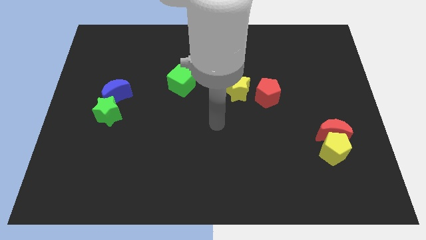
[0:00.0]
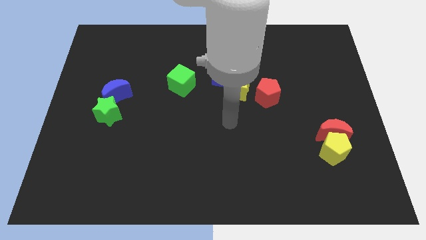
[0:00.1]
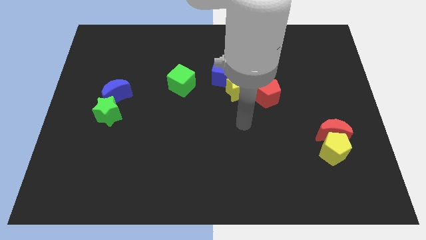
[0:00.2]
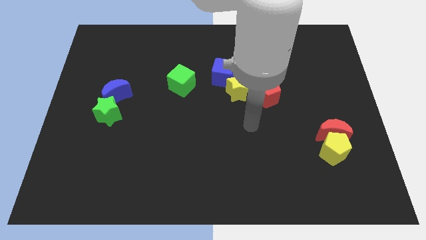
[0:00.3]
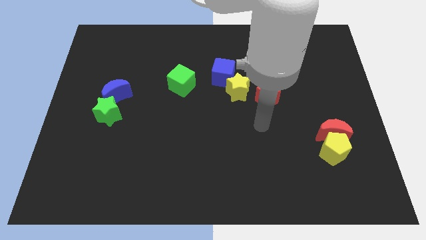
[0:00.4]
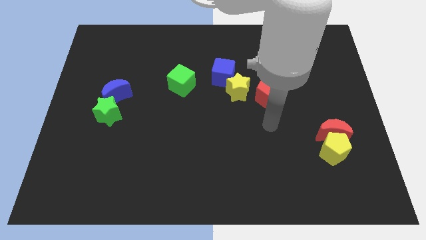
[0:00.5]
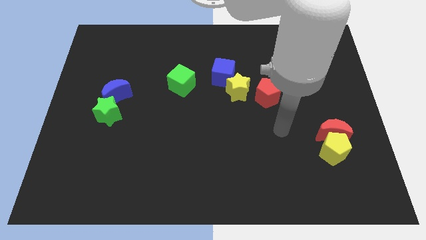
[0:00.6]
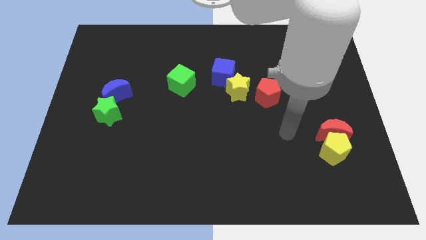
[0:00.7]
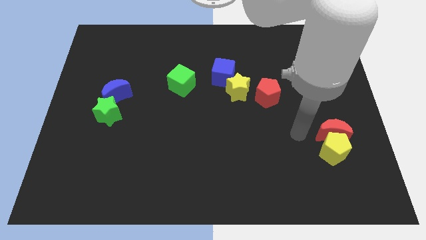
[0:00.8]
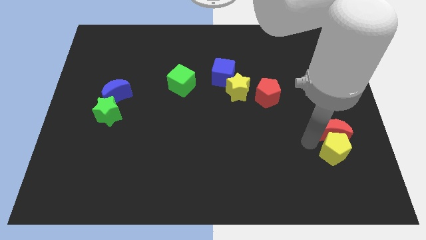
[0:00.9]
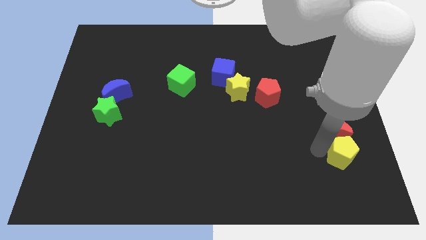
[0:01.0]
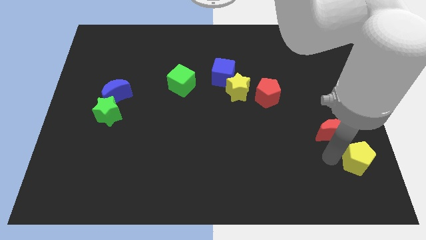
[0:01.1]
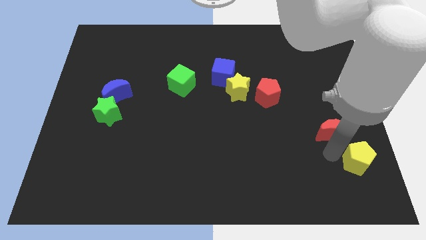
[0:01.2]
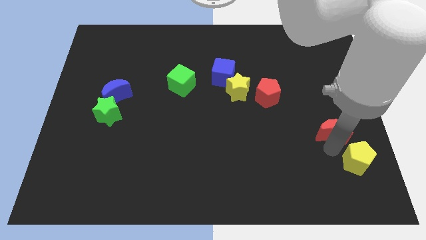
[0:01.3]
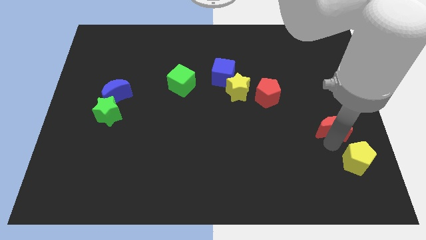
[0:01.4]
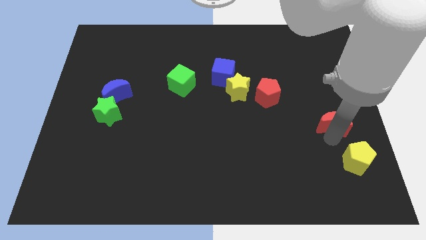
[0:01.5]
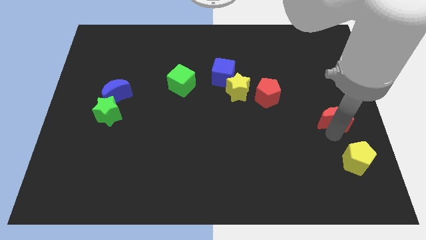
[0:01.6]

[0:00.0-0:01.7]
pull the red moon apart from the yellow pentagon

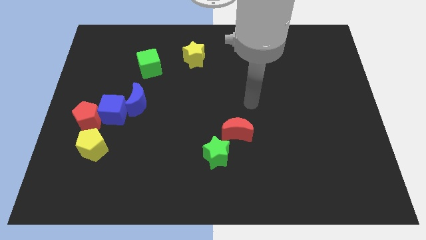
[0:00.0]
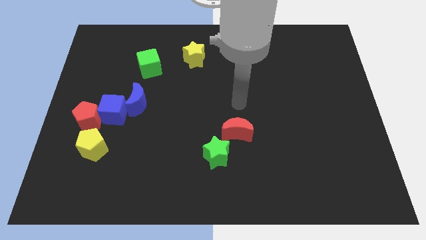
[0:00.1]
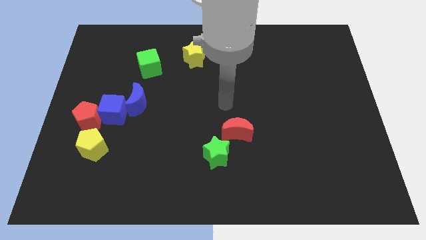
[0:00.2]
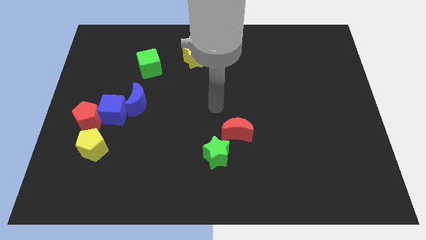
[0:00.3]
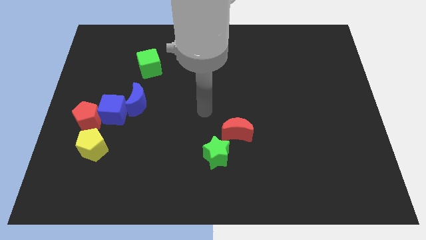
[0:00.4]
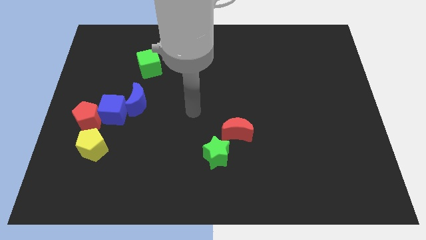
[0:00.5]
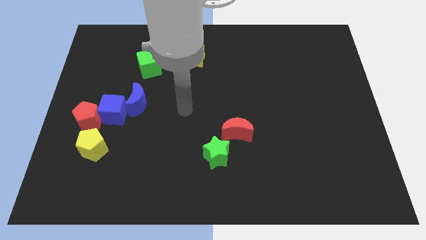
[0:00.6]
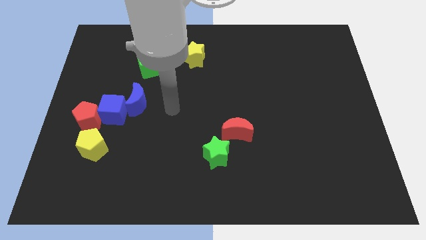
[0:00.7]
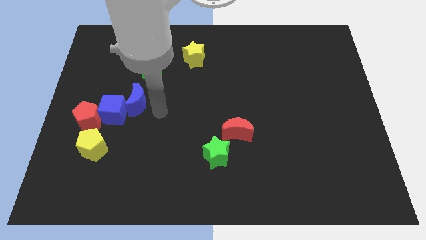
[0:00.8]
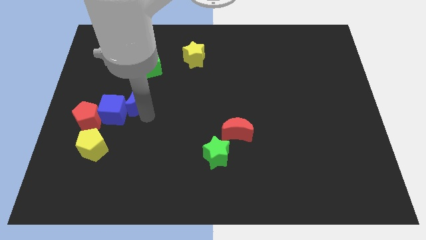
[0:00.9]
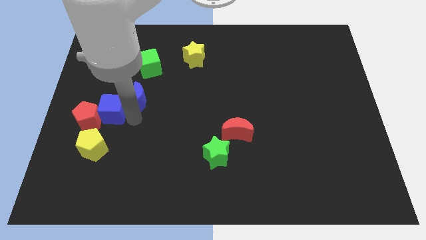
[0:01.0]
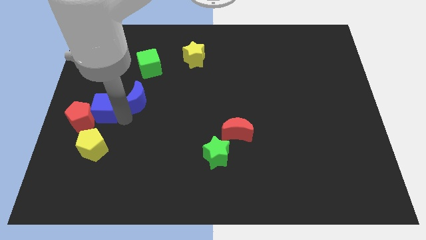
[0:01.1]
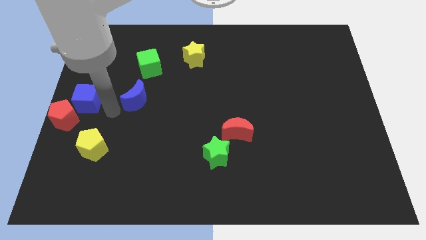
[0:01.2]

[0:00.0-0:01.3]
move the blue moon away from the blue cube

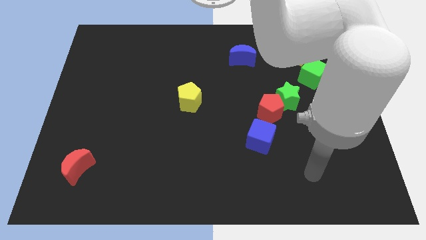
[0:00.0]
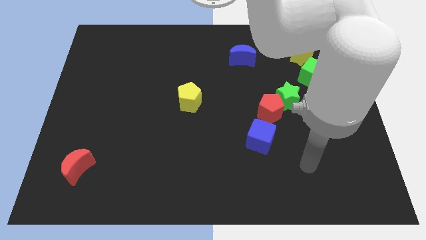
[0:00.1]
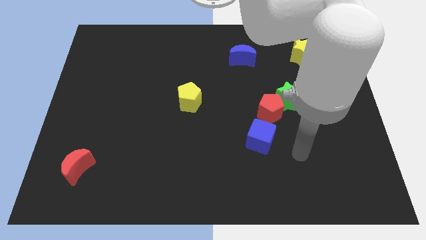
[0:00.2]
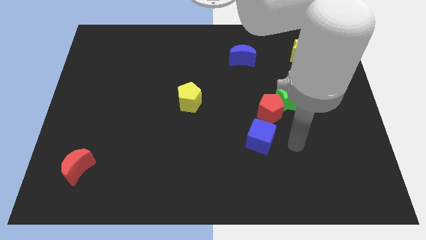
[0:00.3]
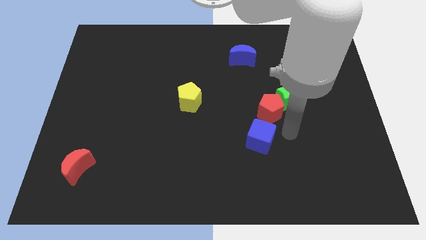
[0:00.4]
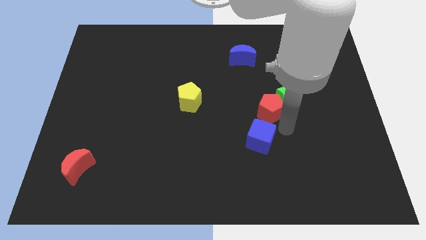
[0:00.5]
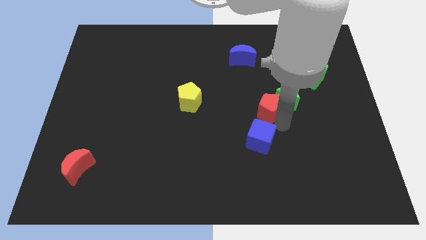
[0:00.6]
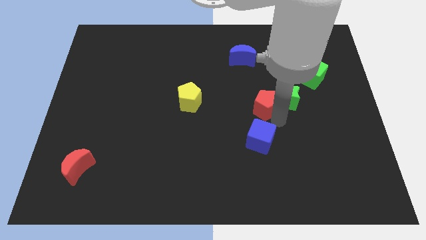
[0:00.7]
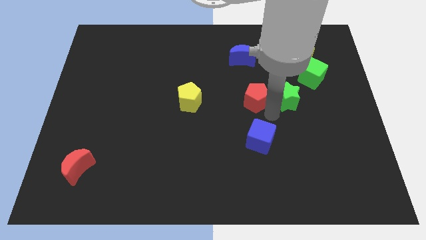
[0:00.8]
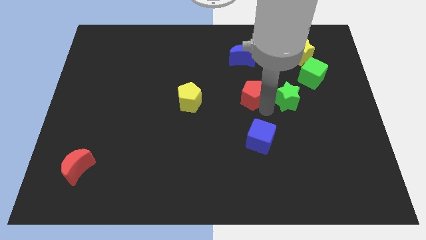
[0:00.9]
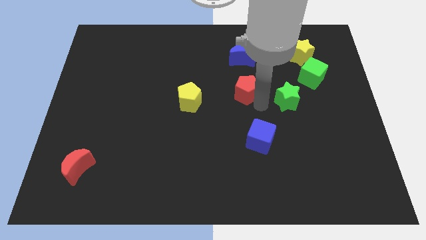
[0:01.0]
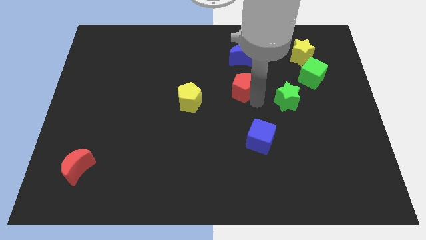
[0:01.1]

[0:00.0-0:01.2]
move the red pentagon away from the green star and blue cube

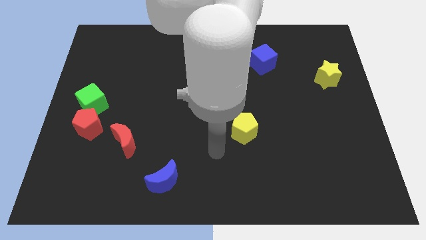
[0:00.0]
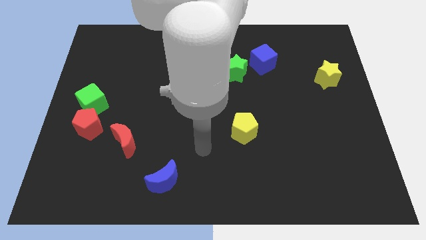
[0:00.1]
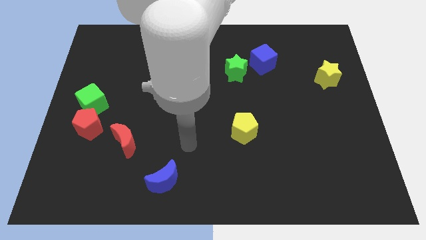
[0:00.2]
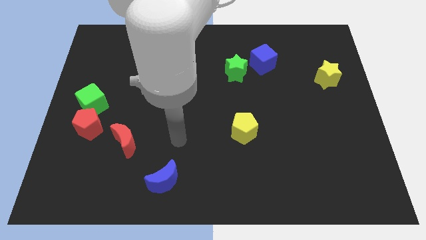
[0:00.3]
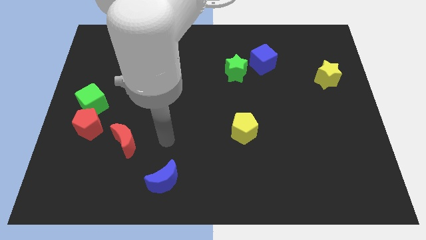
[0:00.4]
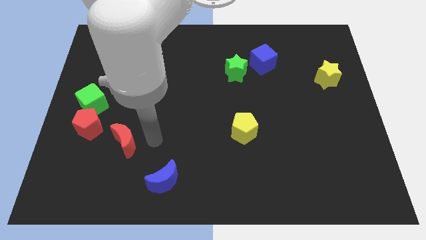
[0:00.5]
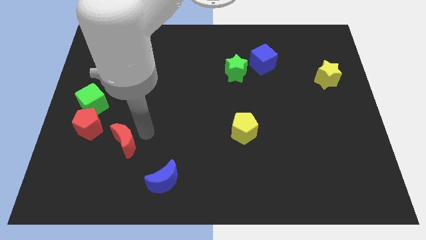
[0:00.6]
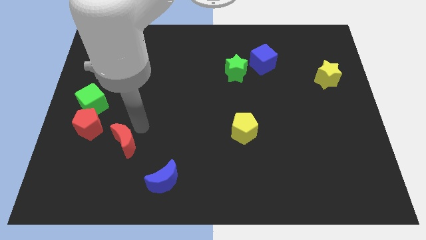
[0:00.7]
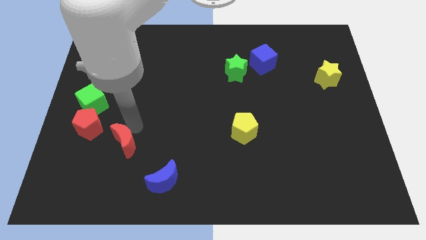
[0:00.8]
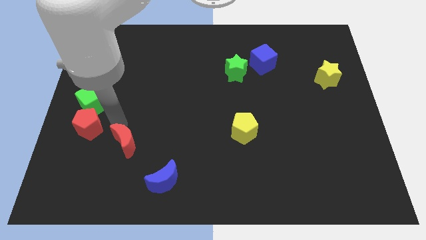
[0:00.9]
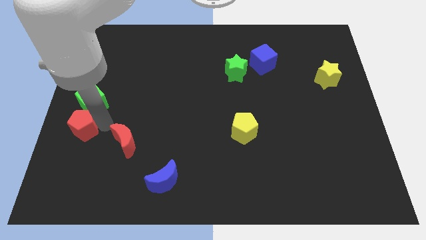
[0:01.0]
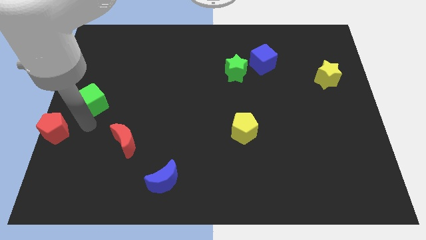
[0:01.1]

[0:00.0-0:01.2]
separate the green cube from the red pentagon

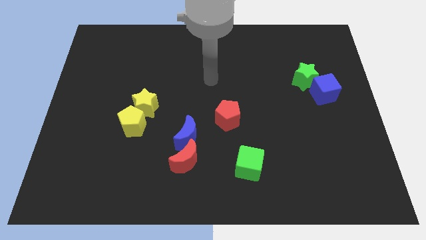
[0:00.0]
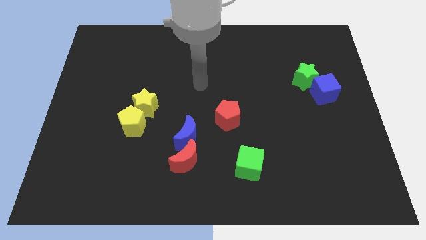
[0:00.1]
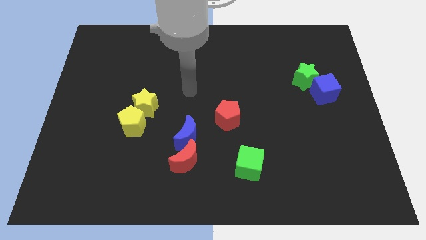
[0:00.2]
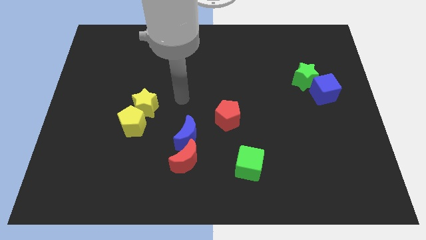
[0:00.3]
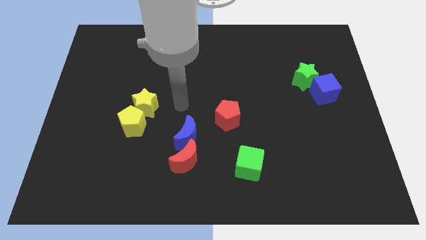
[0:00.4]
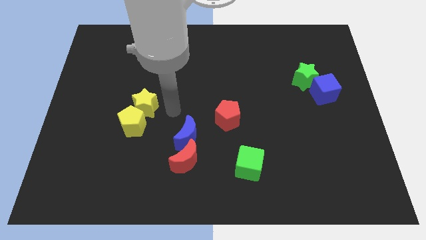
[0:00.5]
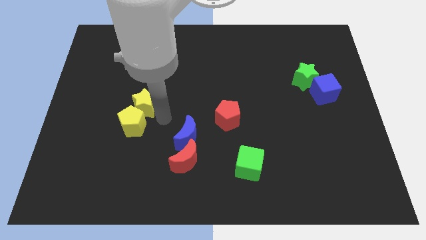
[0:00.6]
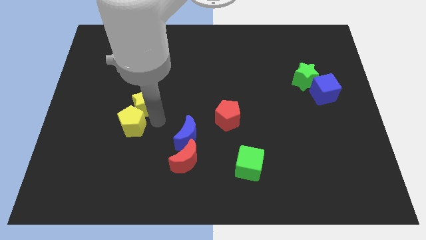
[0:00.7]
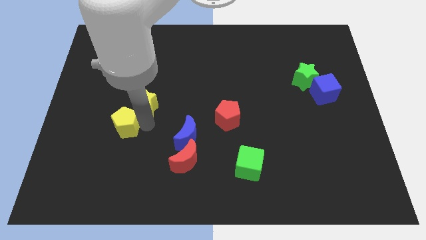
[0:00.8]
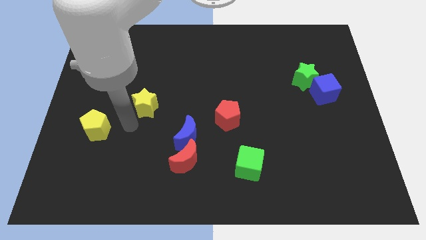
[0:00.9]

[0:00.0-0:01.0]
separate the yellow star from the yellow pentagon

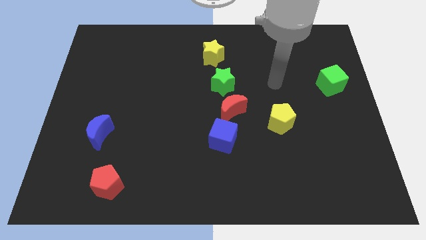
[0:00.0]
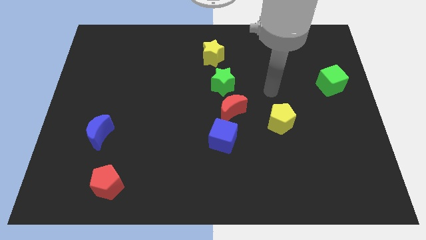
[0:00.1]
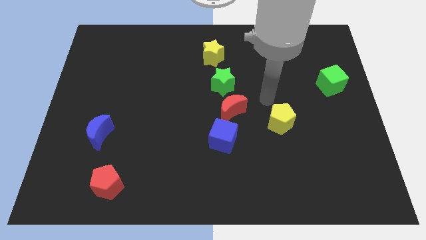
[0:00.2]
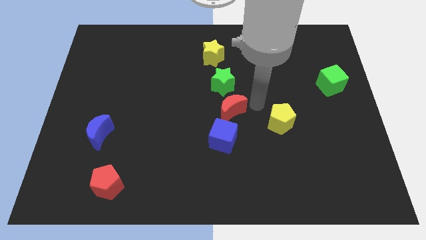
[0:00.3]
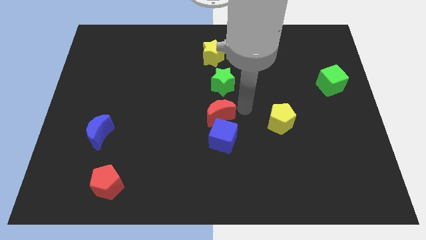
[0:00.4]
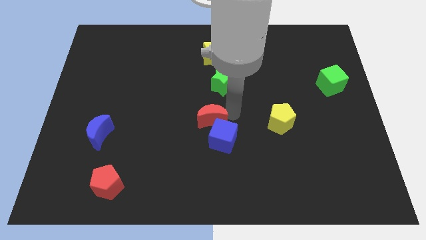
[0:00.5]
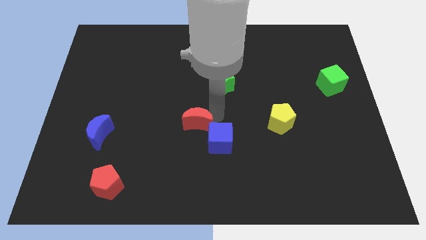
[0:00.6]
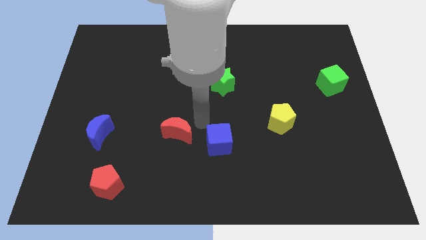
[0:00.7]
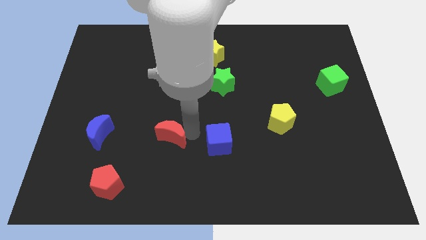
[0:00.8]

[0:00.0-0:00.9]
separate the blue cube from the red moon

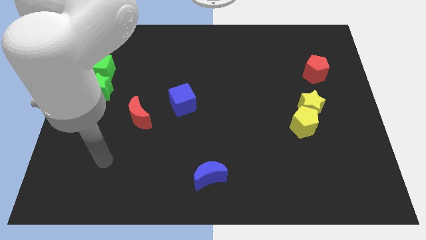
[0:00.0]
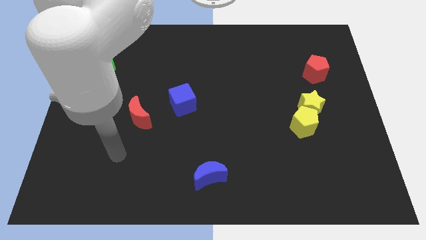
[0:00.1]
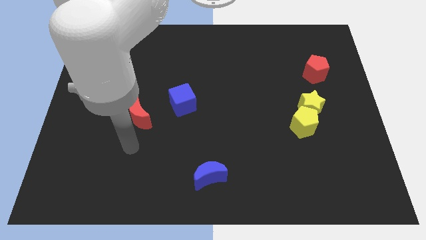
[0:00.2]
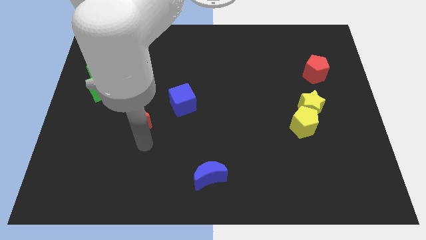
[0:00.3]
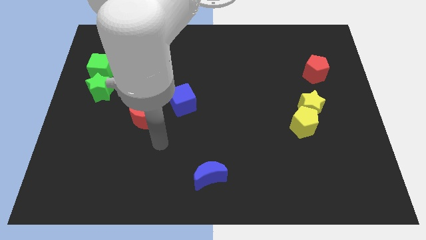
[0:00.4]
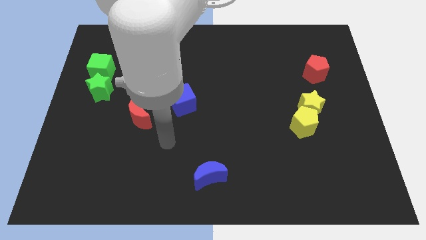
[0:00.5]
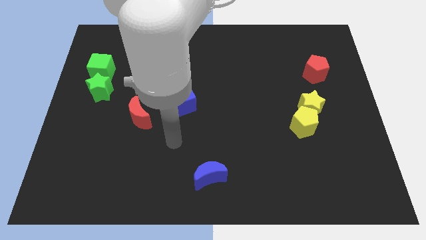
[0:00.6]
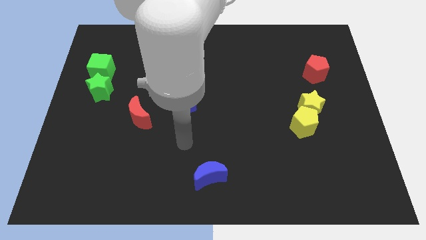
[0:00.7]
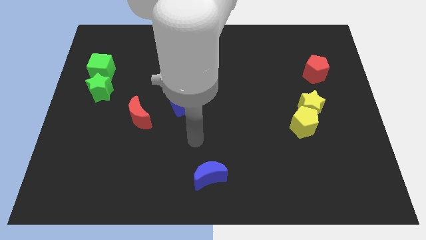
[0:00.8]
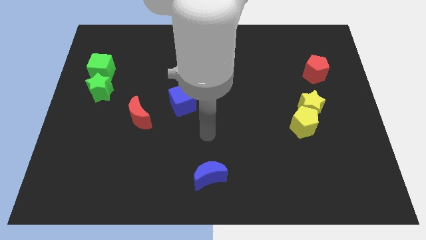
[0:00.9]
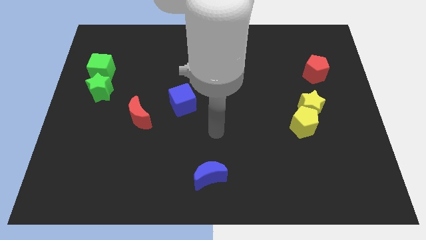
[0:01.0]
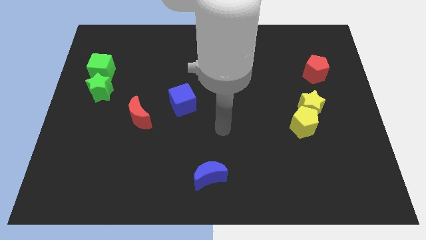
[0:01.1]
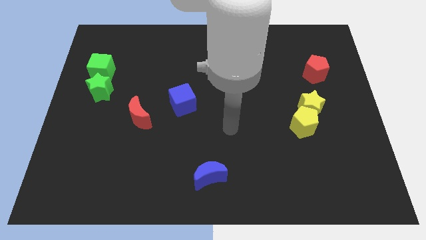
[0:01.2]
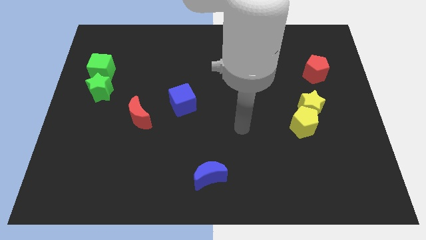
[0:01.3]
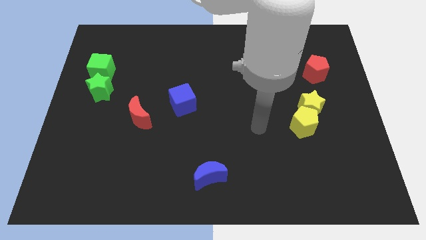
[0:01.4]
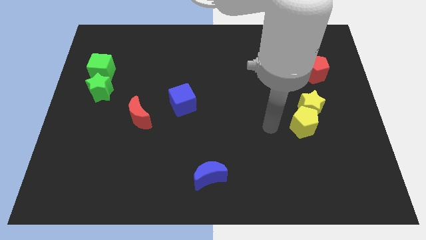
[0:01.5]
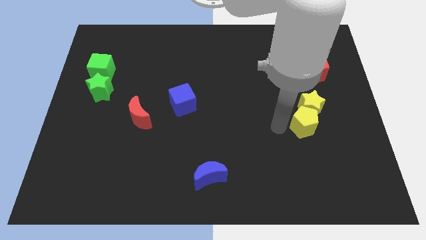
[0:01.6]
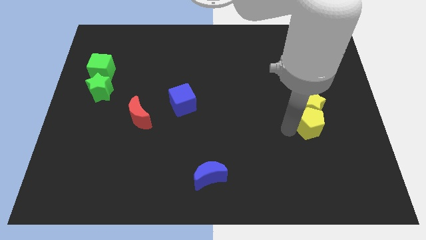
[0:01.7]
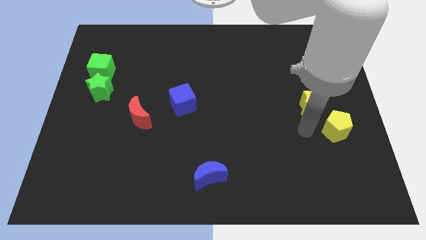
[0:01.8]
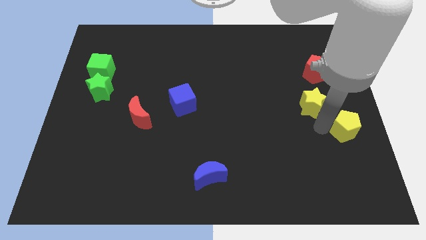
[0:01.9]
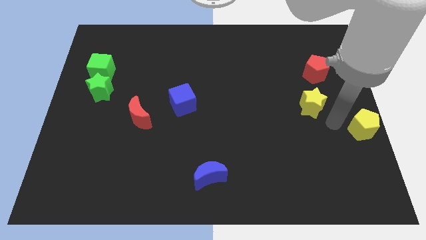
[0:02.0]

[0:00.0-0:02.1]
pull the yellow star apart from the yellow pentagon
